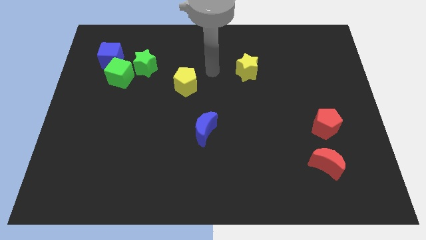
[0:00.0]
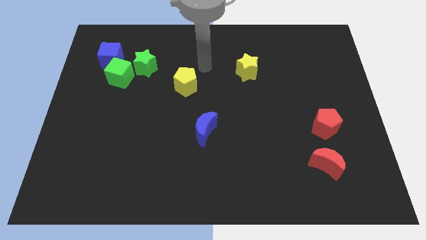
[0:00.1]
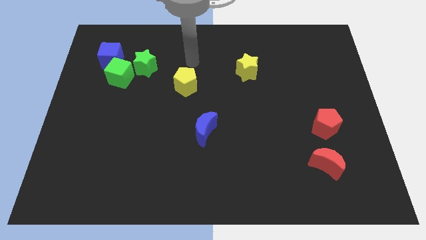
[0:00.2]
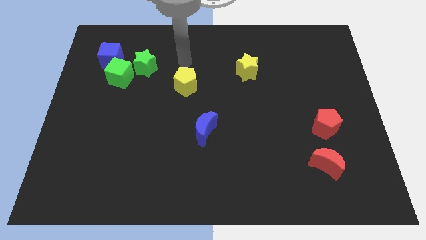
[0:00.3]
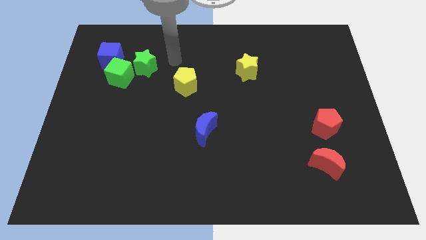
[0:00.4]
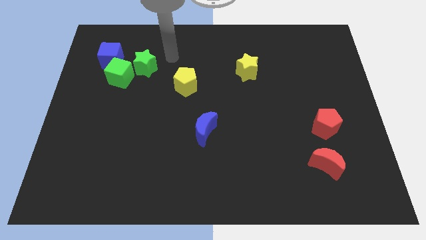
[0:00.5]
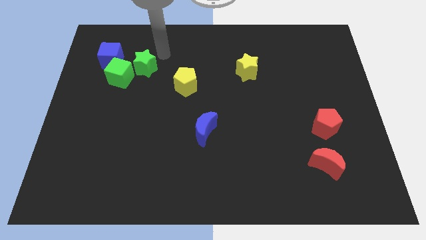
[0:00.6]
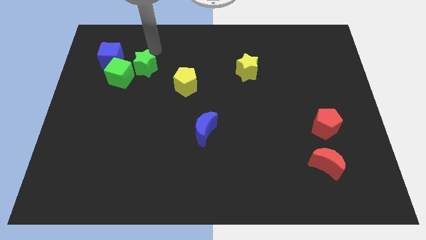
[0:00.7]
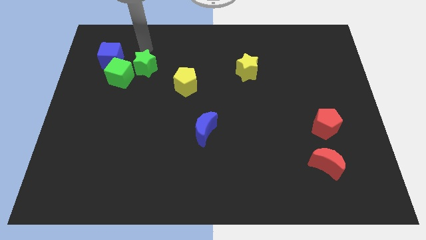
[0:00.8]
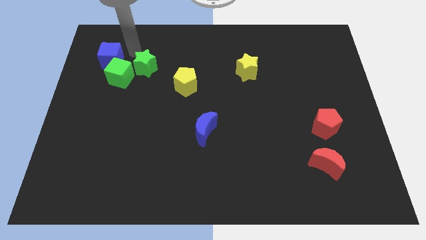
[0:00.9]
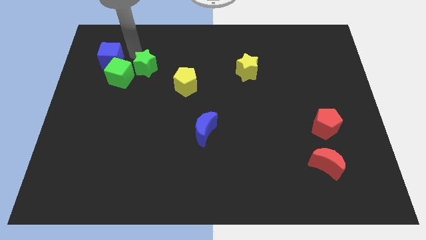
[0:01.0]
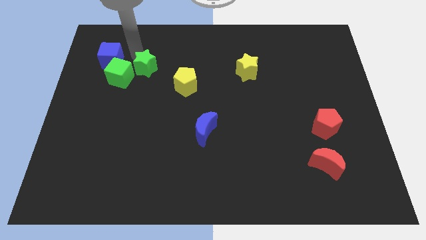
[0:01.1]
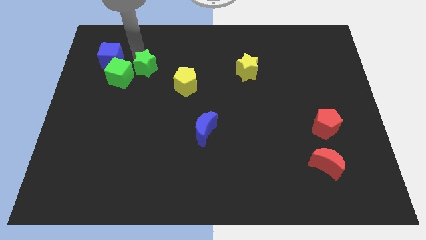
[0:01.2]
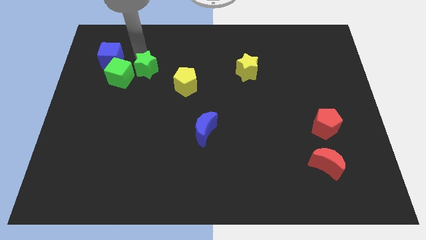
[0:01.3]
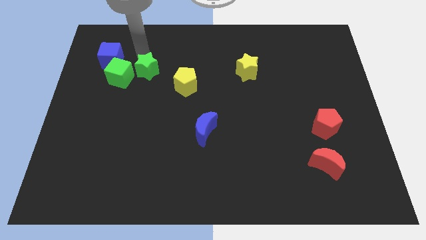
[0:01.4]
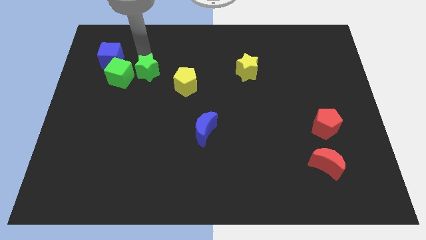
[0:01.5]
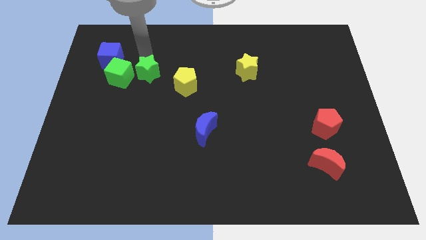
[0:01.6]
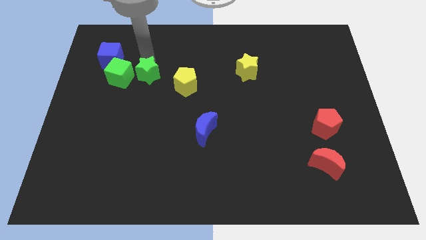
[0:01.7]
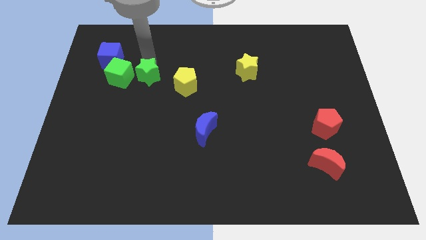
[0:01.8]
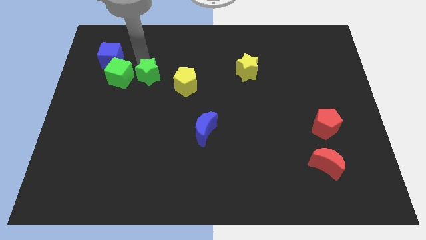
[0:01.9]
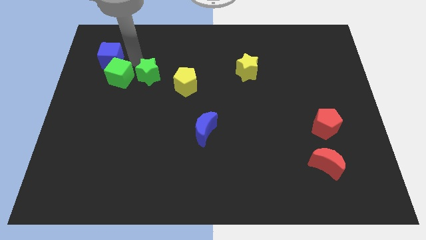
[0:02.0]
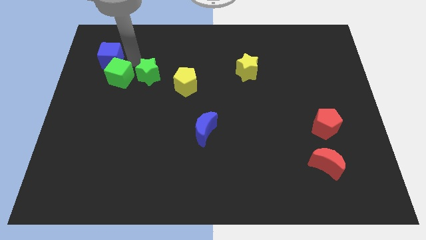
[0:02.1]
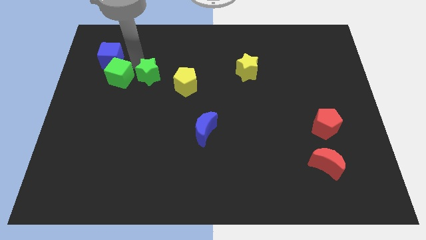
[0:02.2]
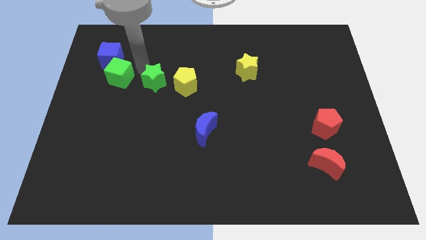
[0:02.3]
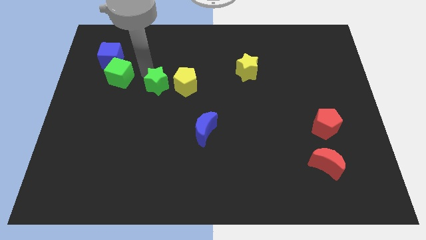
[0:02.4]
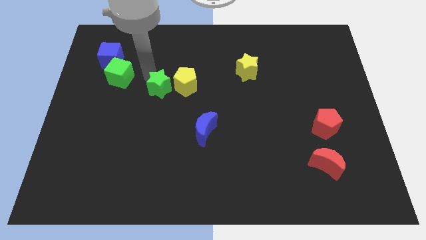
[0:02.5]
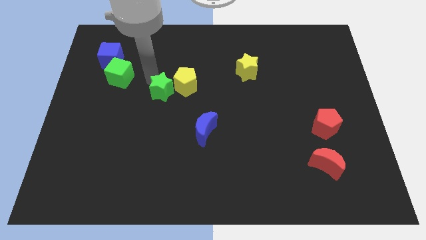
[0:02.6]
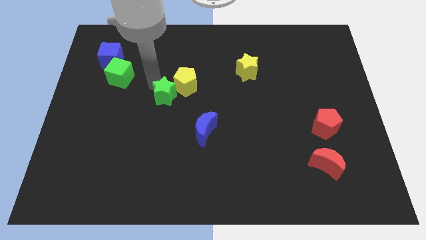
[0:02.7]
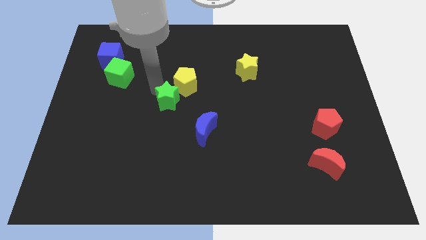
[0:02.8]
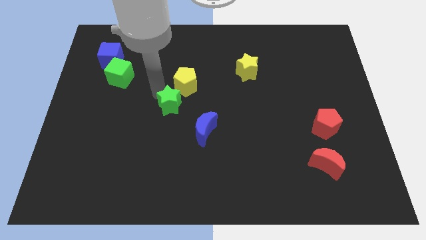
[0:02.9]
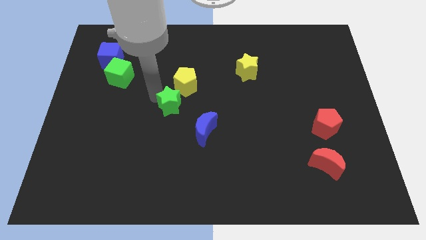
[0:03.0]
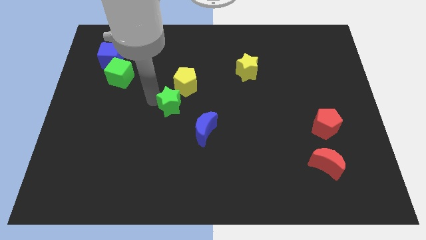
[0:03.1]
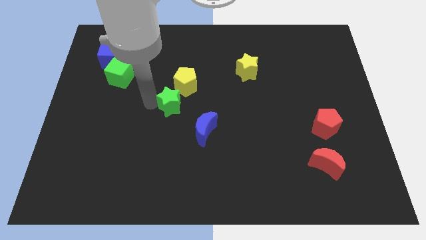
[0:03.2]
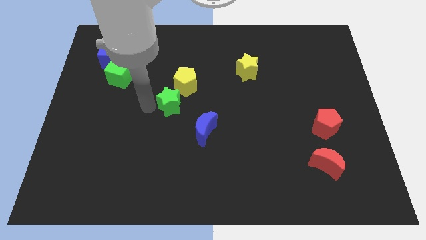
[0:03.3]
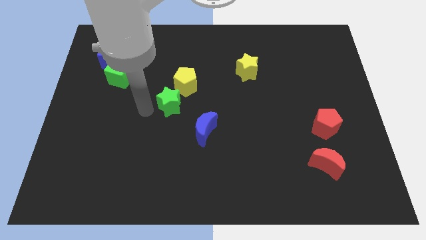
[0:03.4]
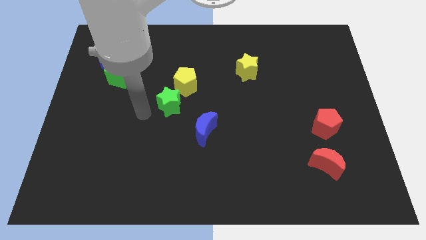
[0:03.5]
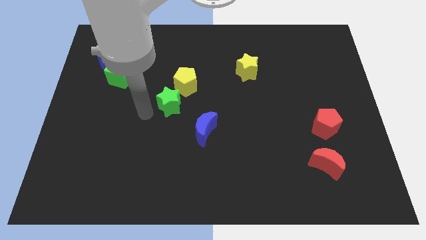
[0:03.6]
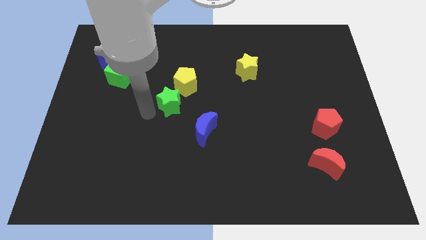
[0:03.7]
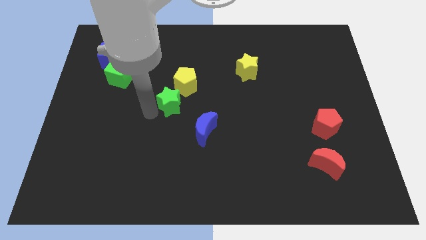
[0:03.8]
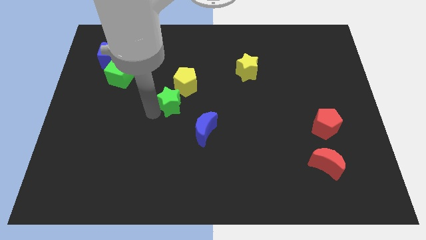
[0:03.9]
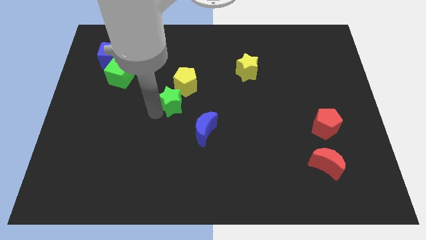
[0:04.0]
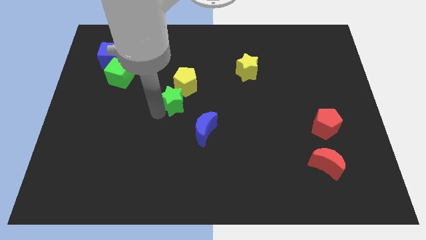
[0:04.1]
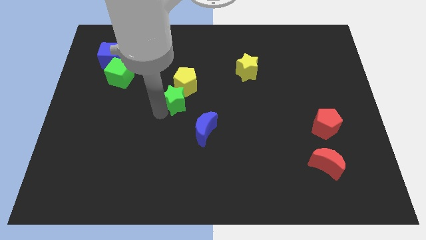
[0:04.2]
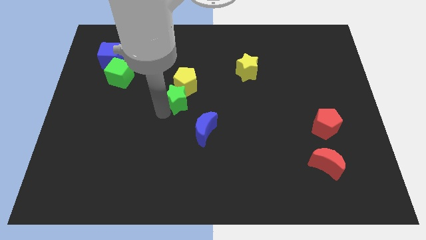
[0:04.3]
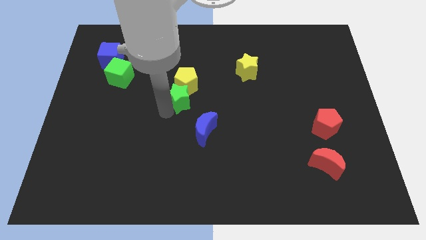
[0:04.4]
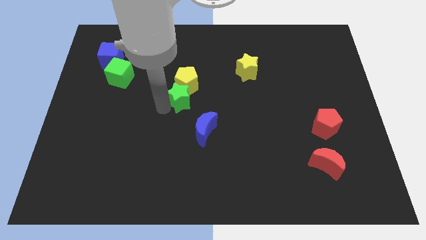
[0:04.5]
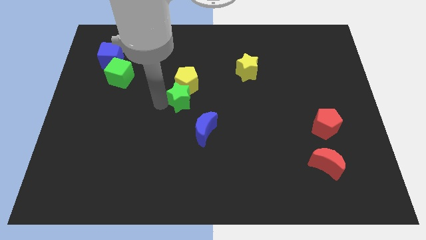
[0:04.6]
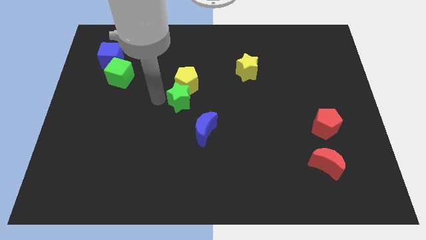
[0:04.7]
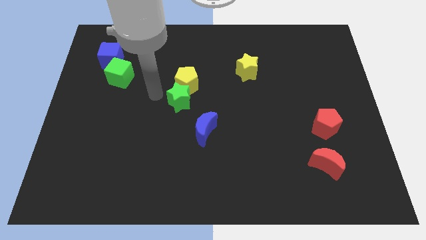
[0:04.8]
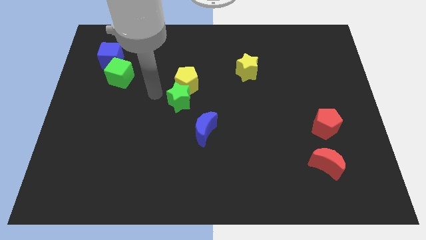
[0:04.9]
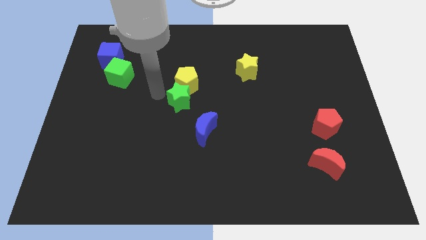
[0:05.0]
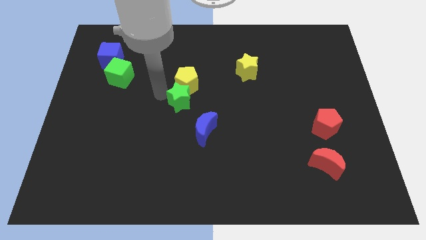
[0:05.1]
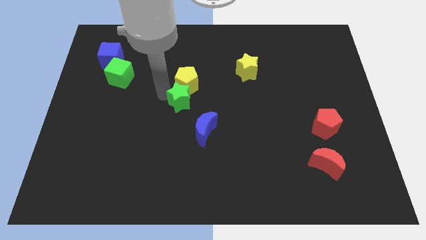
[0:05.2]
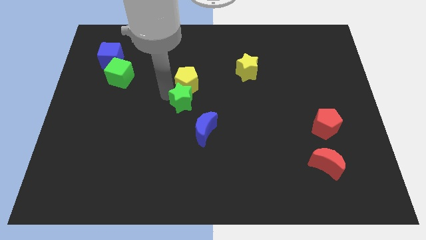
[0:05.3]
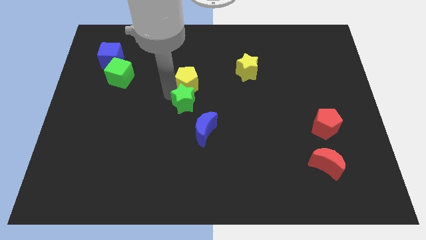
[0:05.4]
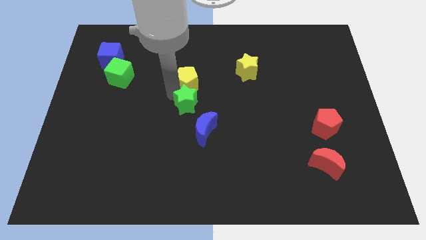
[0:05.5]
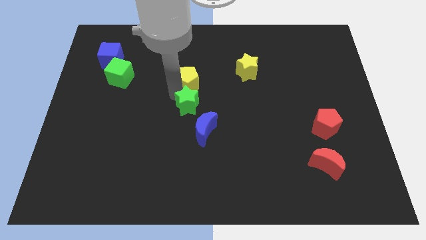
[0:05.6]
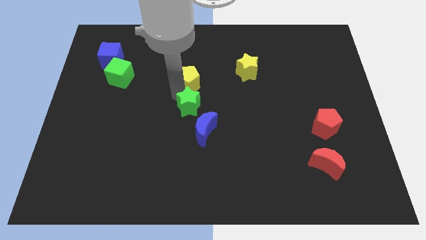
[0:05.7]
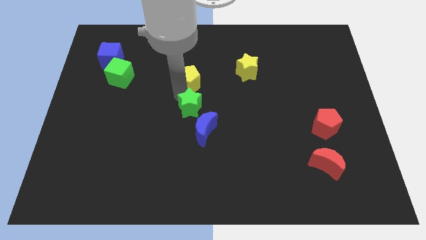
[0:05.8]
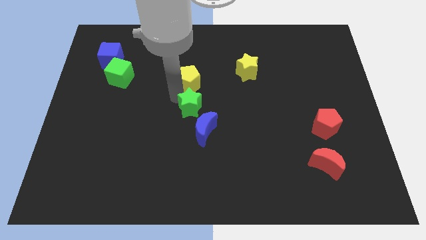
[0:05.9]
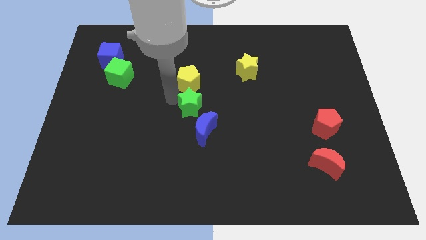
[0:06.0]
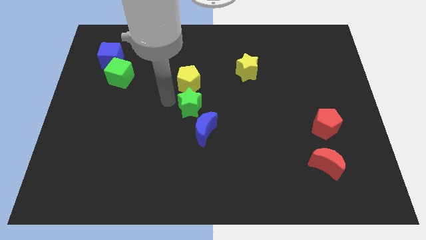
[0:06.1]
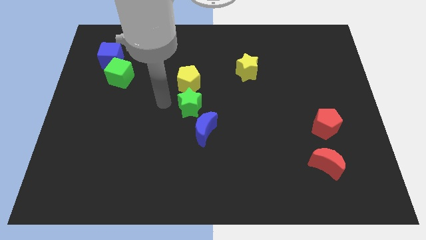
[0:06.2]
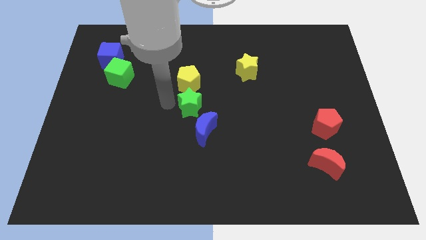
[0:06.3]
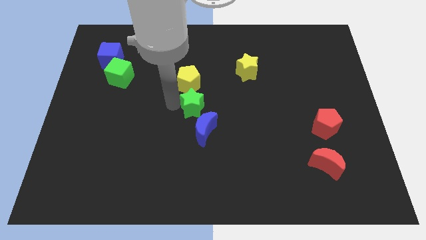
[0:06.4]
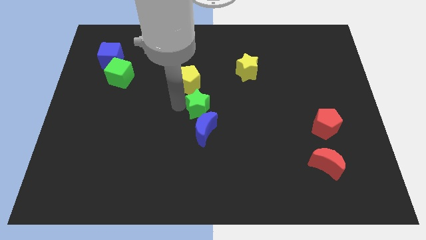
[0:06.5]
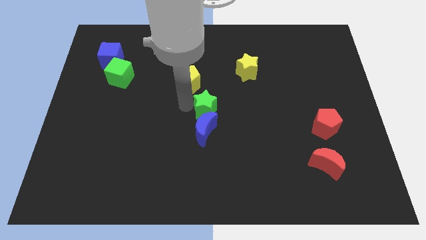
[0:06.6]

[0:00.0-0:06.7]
slide the green star downwards and then right

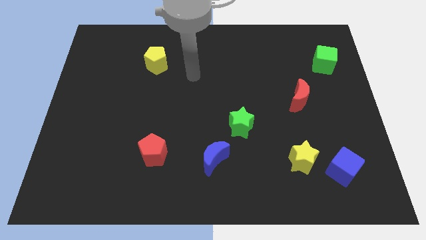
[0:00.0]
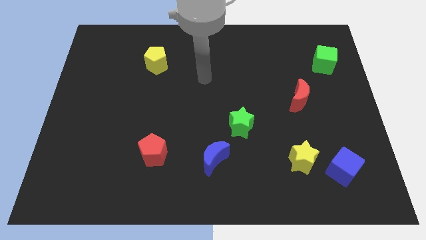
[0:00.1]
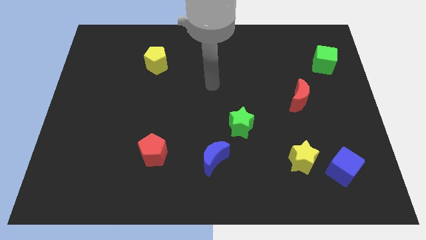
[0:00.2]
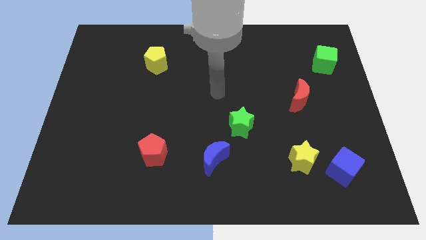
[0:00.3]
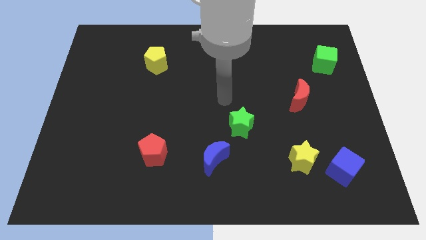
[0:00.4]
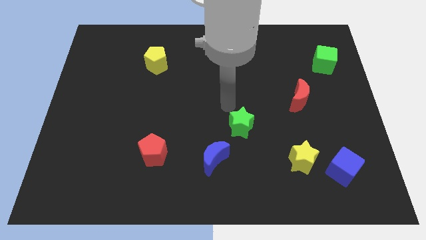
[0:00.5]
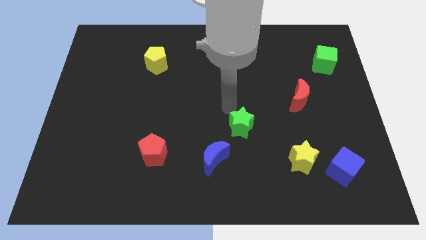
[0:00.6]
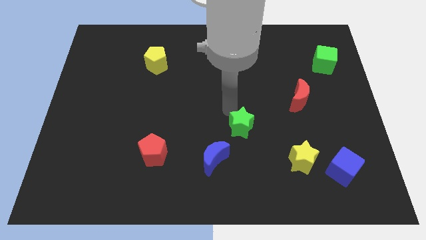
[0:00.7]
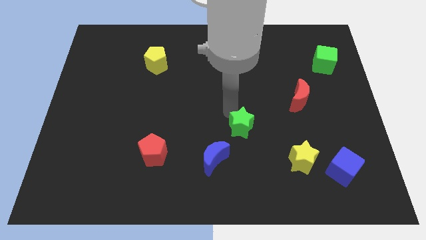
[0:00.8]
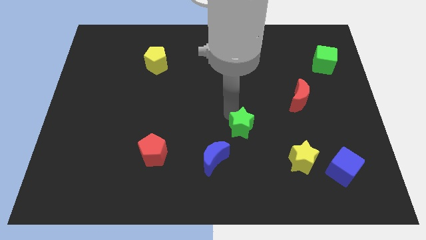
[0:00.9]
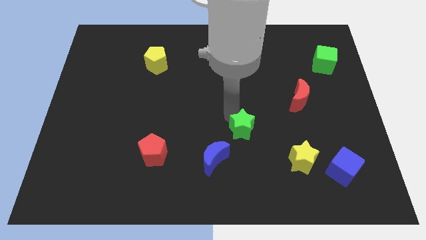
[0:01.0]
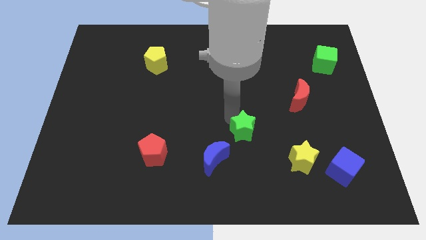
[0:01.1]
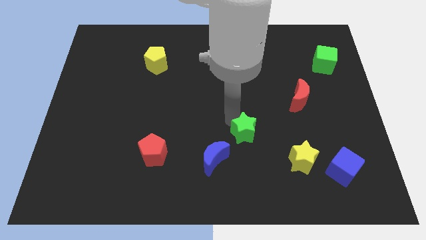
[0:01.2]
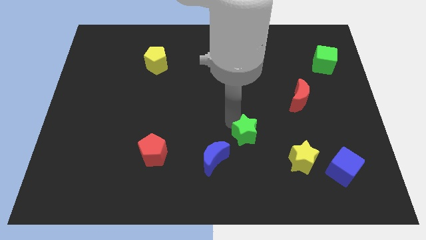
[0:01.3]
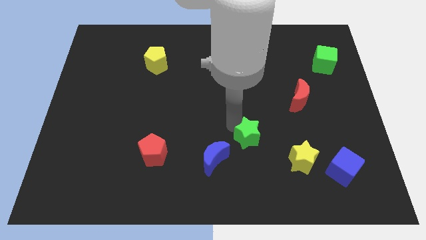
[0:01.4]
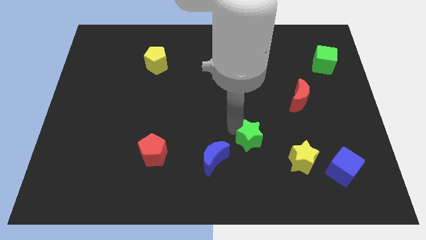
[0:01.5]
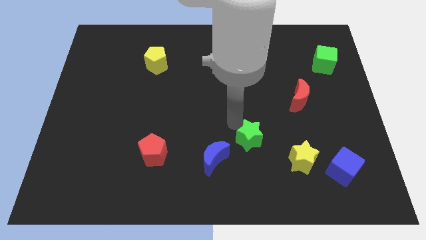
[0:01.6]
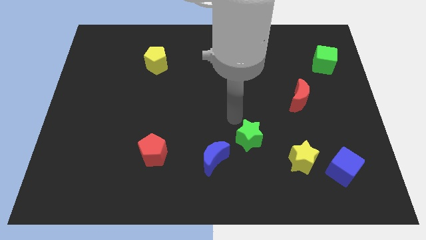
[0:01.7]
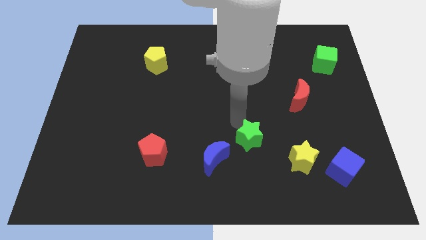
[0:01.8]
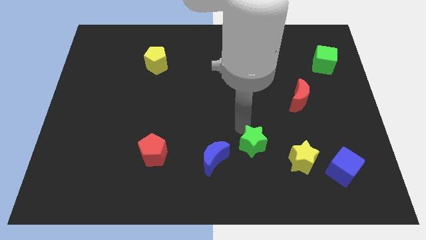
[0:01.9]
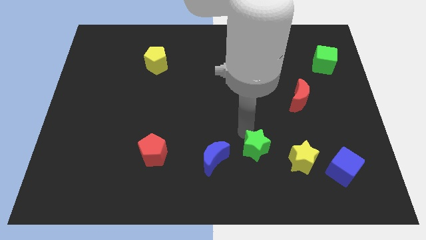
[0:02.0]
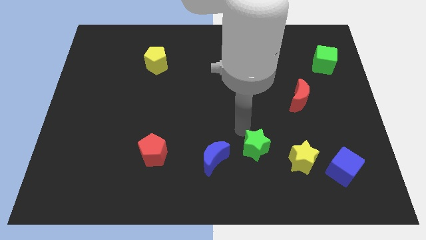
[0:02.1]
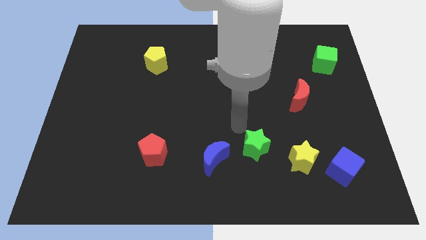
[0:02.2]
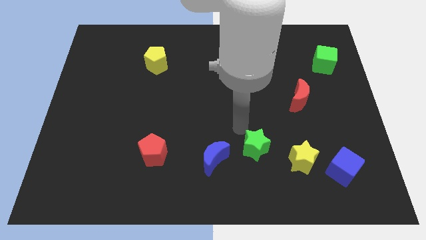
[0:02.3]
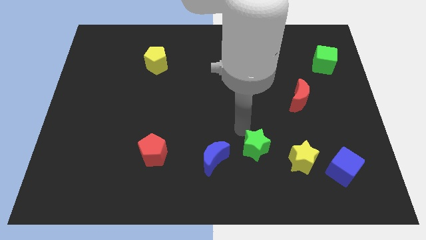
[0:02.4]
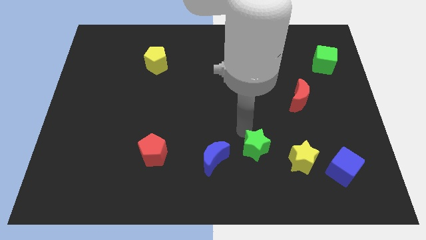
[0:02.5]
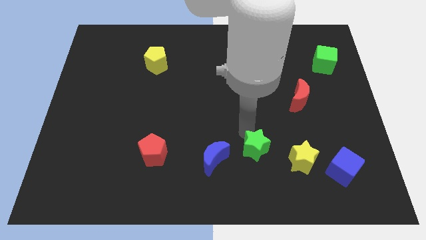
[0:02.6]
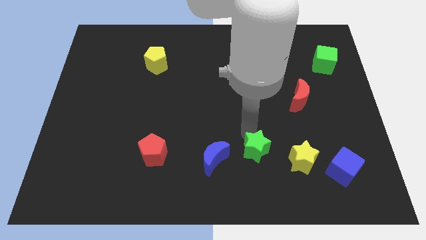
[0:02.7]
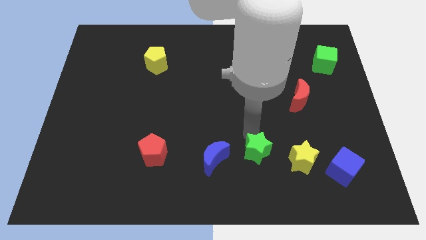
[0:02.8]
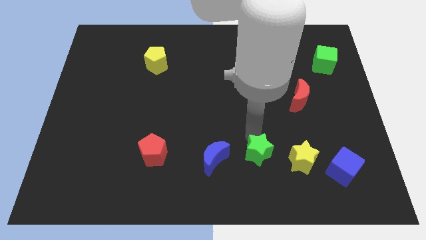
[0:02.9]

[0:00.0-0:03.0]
slide the green star downwards and to the right somewhat
